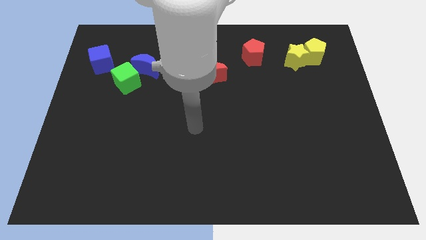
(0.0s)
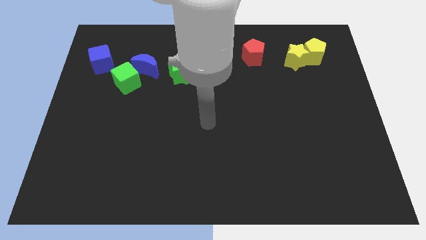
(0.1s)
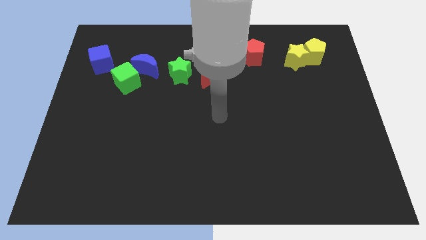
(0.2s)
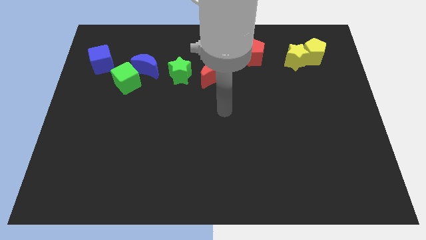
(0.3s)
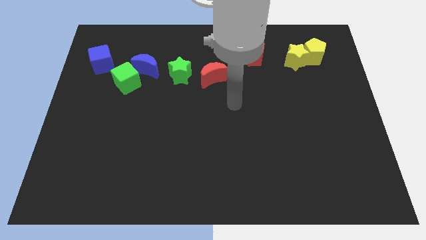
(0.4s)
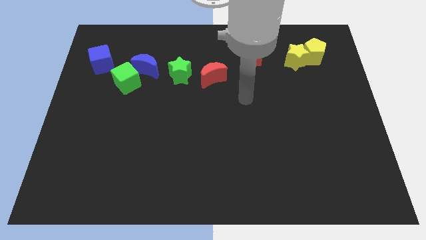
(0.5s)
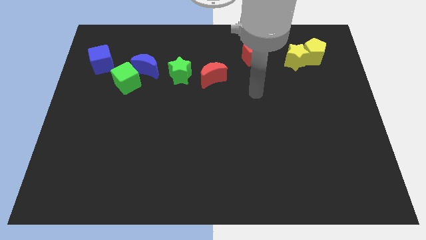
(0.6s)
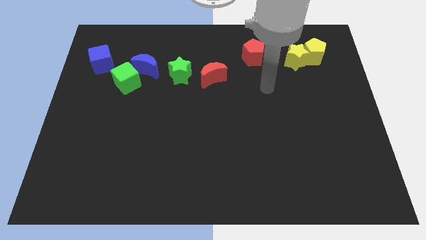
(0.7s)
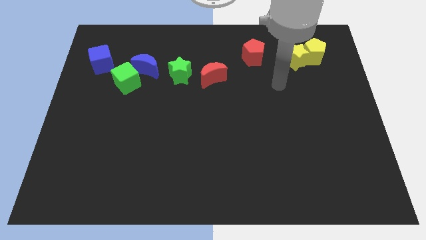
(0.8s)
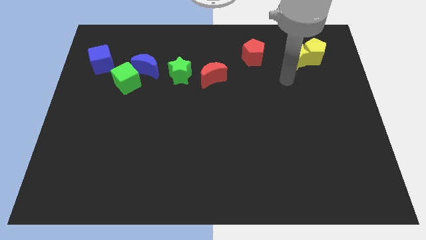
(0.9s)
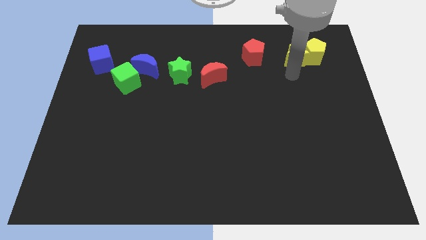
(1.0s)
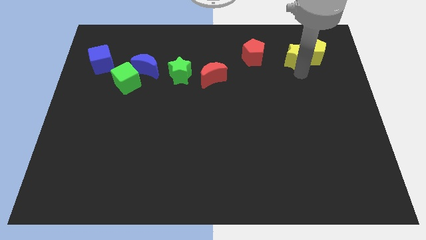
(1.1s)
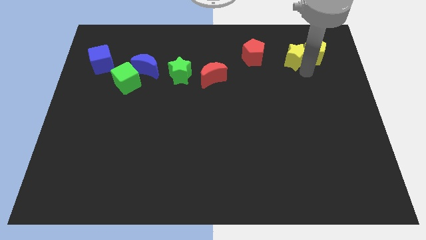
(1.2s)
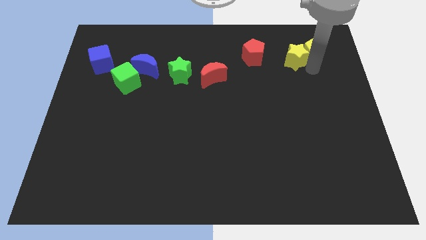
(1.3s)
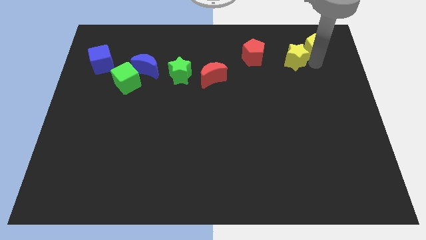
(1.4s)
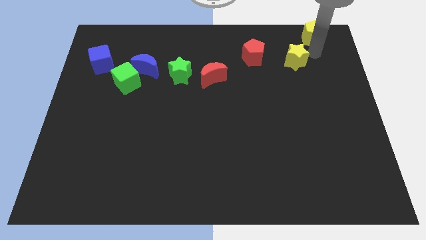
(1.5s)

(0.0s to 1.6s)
pull the yellow star apart from the yellow pentagon

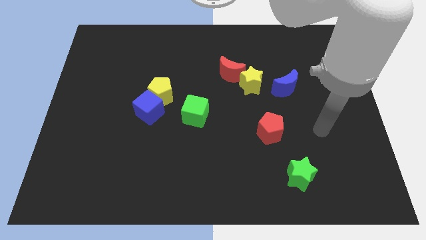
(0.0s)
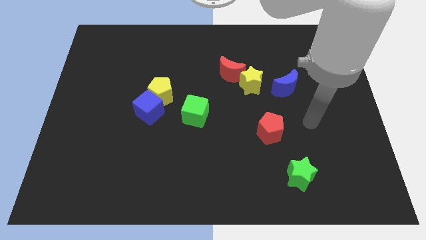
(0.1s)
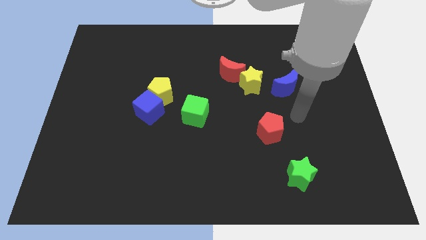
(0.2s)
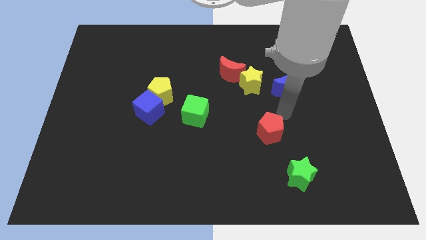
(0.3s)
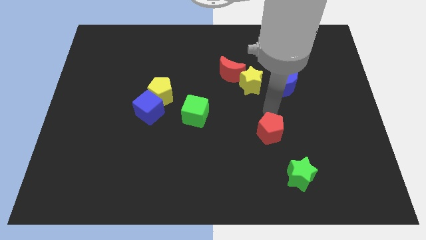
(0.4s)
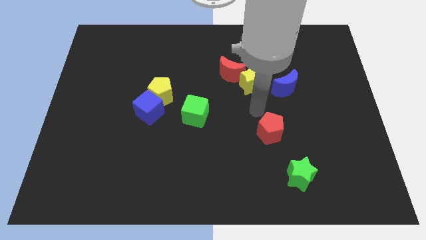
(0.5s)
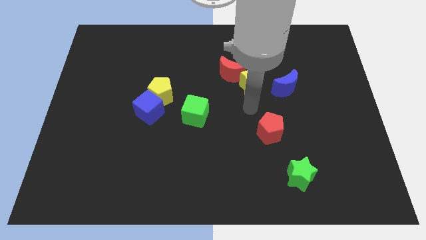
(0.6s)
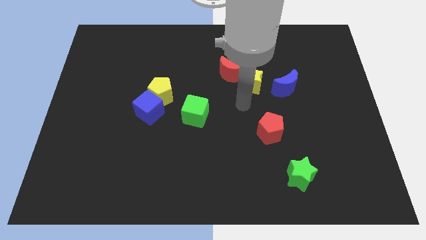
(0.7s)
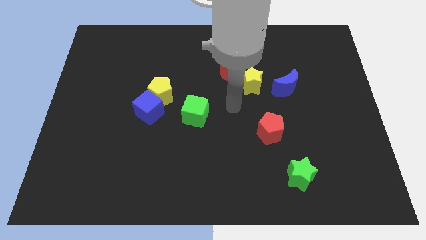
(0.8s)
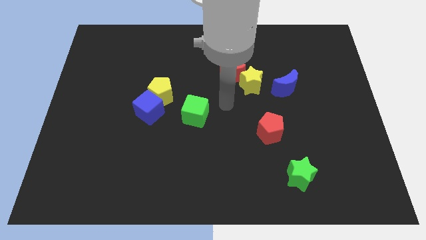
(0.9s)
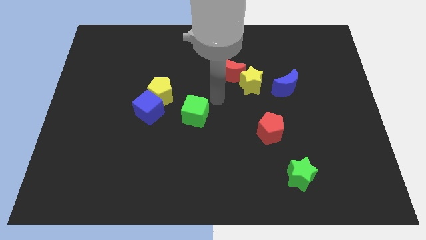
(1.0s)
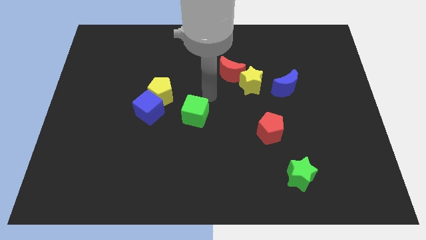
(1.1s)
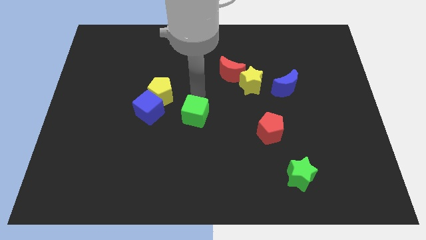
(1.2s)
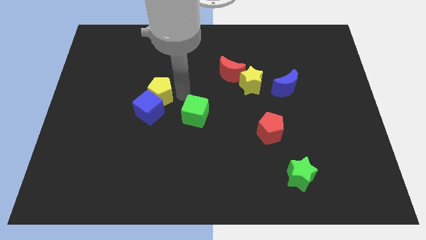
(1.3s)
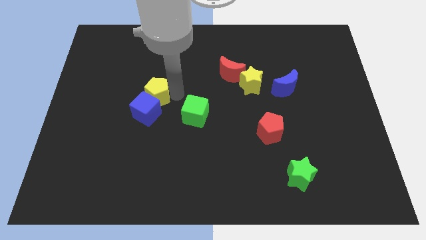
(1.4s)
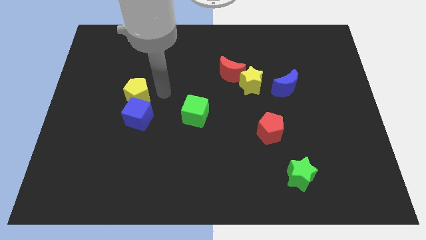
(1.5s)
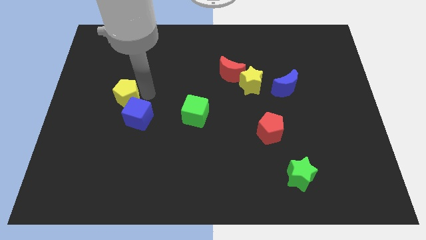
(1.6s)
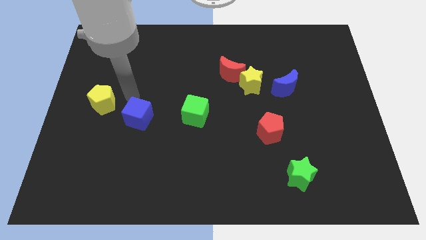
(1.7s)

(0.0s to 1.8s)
pull the blue cube apart from the yellow pentagon

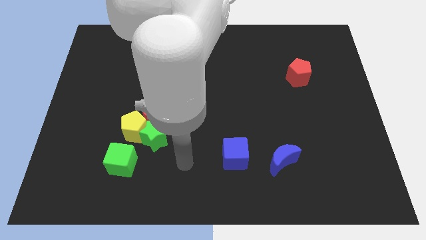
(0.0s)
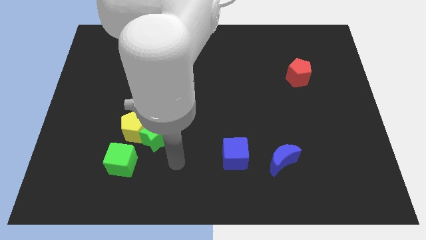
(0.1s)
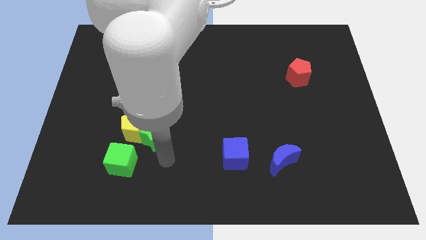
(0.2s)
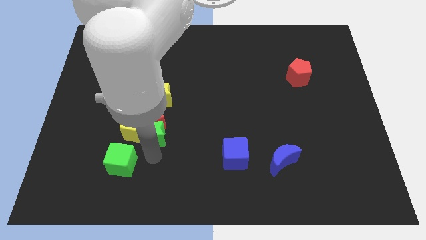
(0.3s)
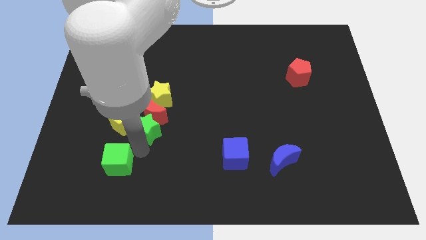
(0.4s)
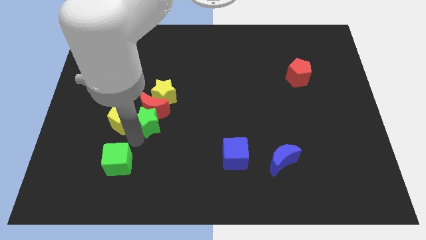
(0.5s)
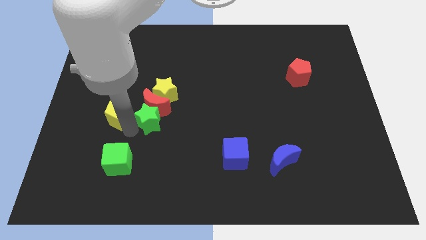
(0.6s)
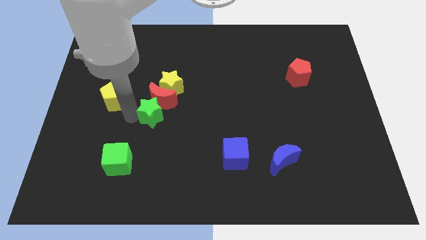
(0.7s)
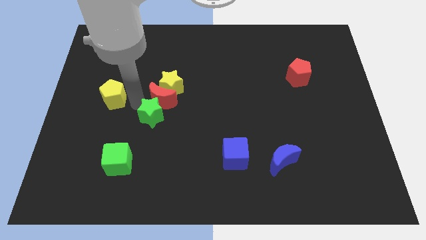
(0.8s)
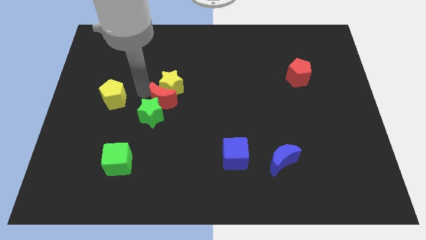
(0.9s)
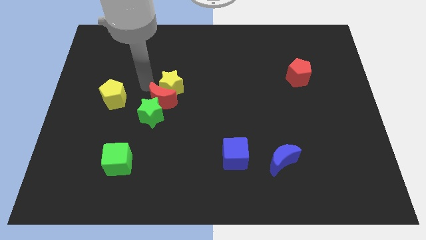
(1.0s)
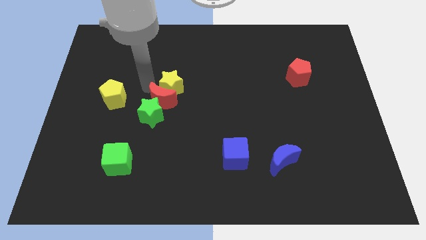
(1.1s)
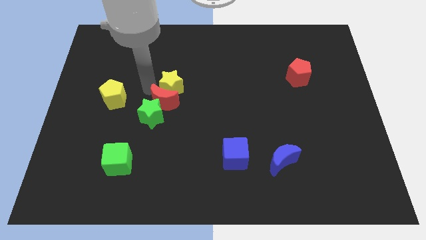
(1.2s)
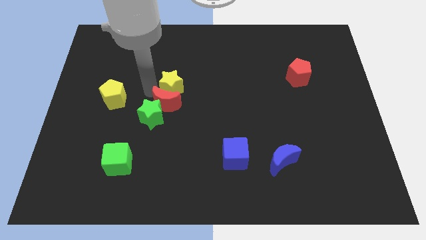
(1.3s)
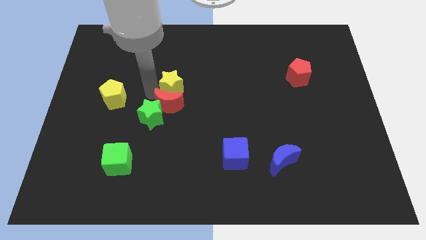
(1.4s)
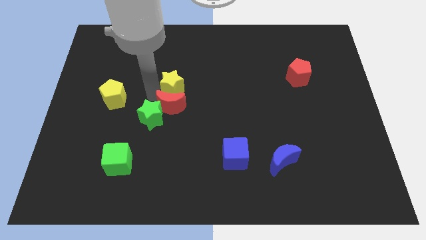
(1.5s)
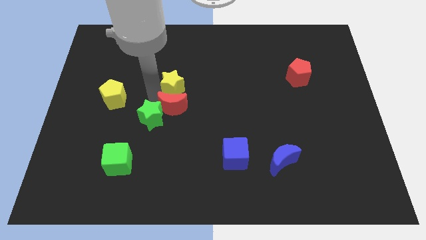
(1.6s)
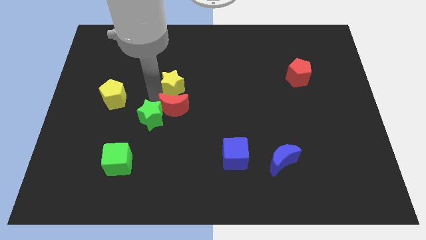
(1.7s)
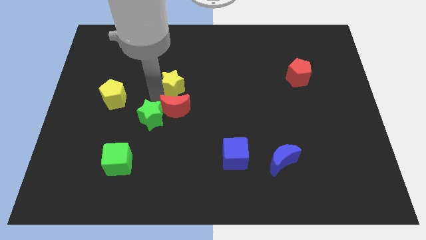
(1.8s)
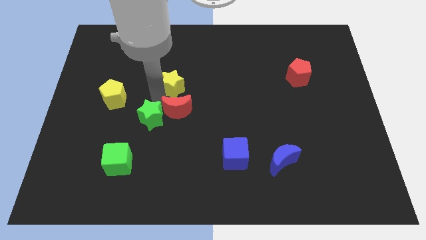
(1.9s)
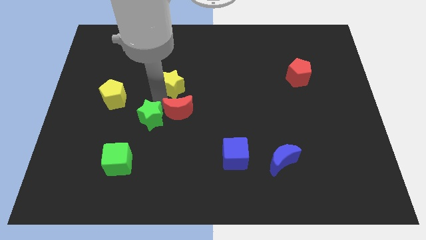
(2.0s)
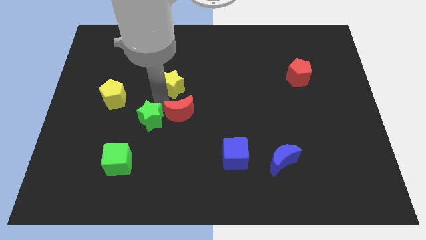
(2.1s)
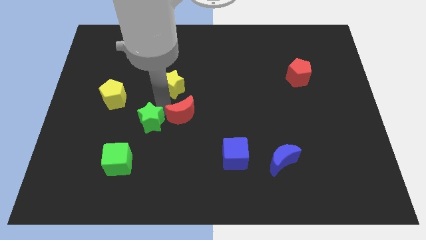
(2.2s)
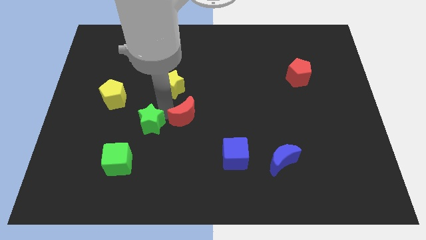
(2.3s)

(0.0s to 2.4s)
separate the red moon from the yellow pentagon, green star, and yellow star

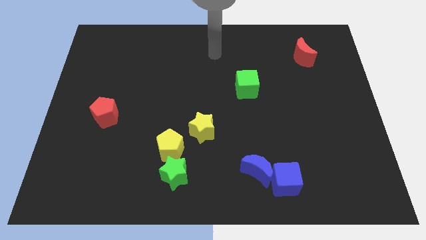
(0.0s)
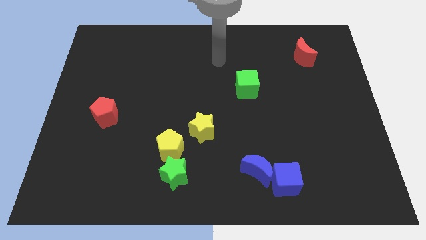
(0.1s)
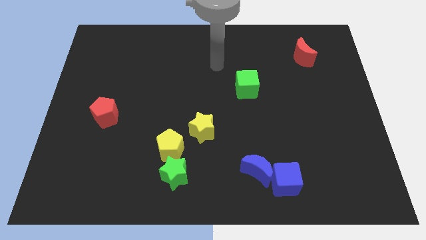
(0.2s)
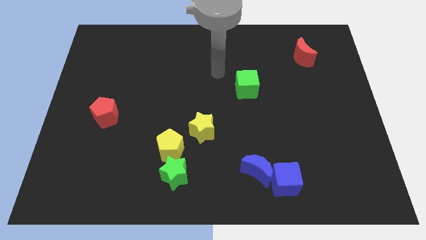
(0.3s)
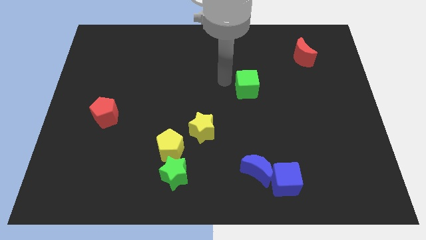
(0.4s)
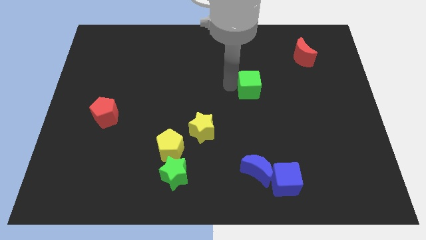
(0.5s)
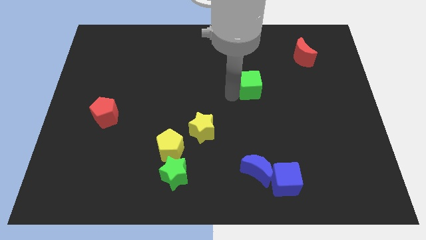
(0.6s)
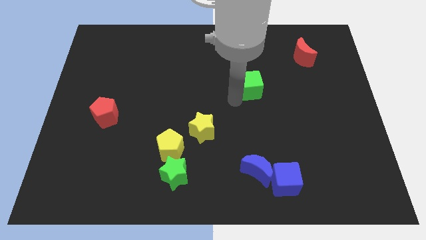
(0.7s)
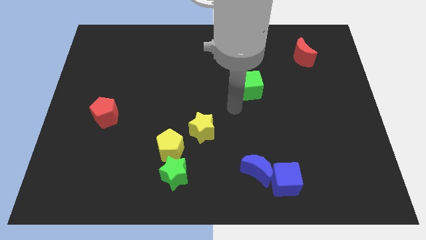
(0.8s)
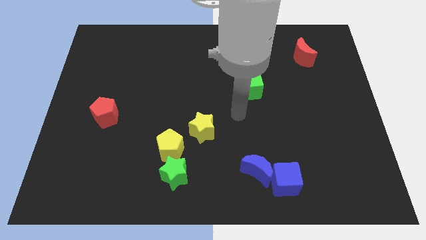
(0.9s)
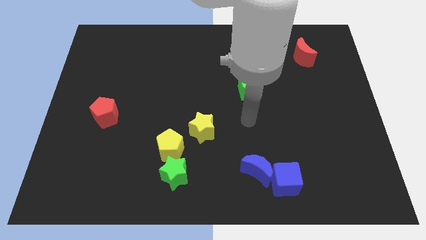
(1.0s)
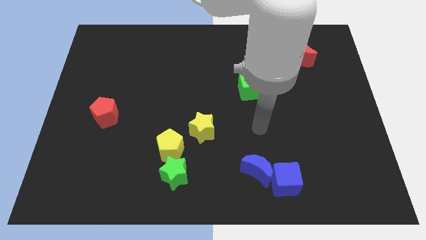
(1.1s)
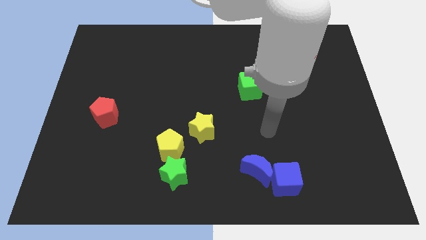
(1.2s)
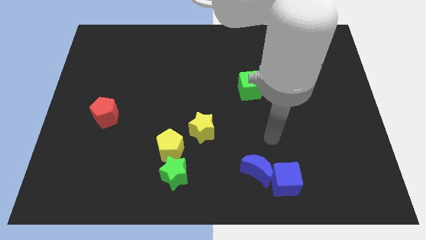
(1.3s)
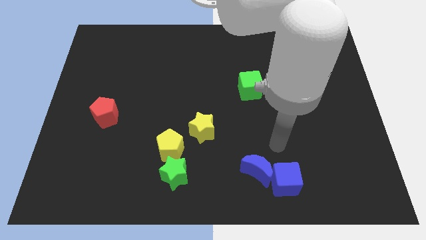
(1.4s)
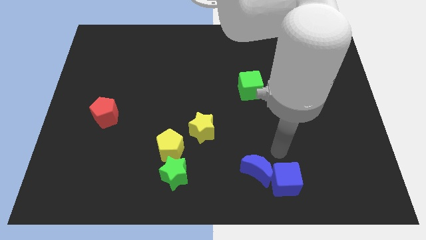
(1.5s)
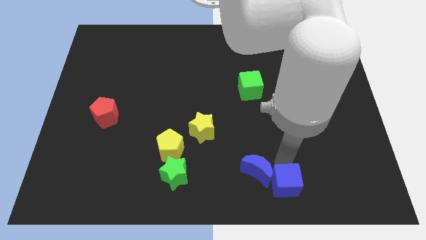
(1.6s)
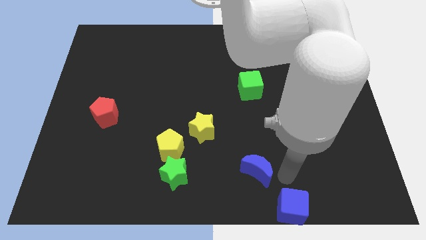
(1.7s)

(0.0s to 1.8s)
separate the blue moon from the blue cube

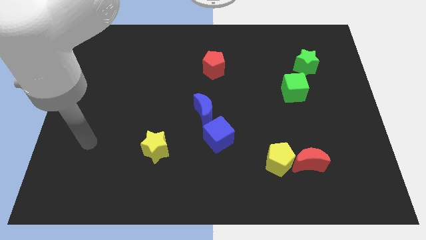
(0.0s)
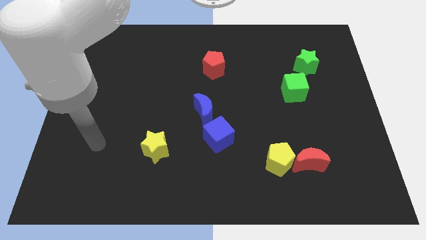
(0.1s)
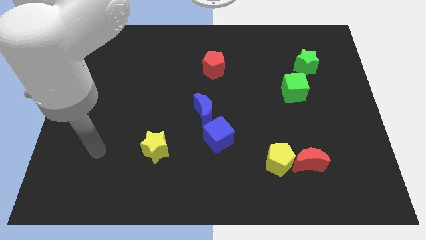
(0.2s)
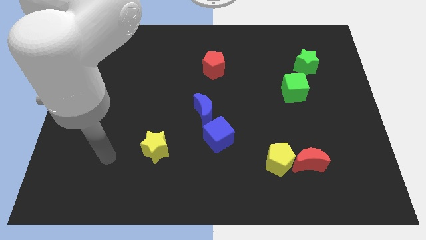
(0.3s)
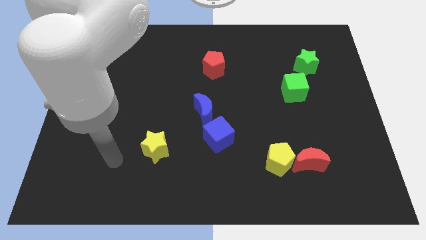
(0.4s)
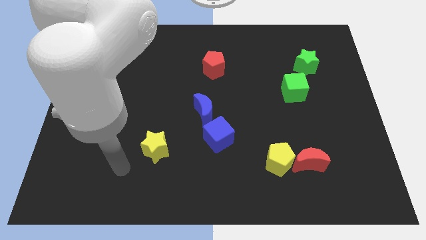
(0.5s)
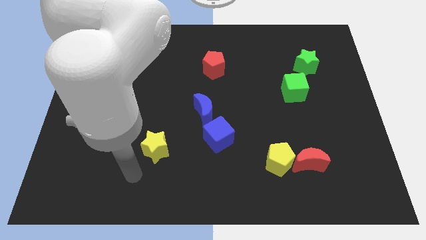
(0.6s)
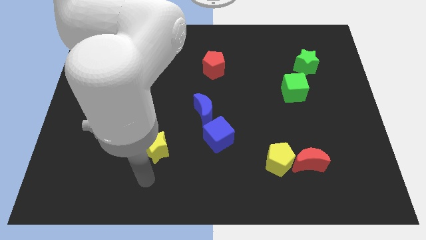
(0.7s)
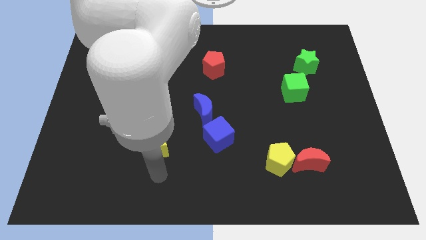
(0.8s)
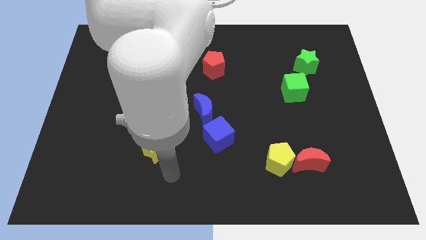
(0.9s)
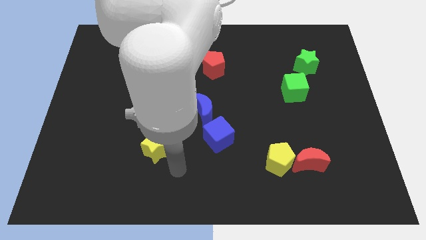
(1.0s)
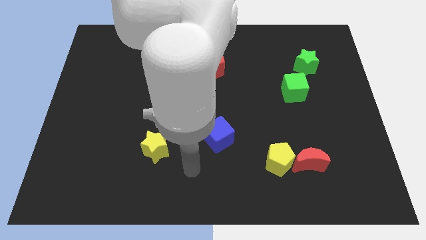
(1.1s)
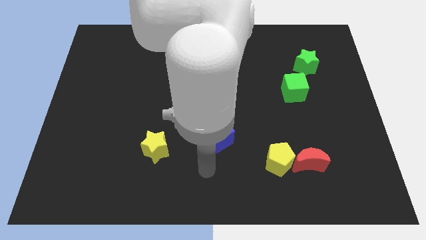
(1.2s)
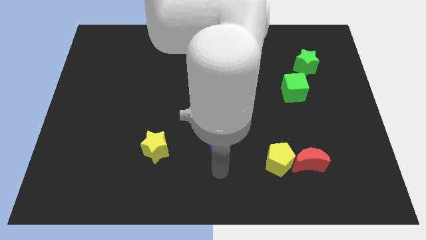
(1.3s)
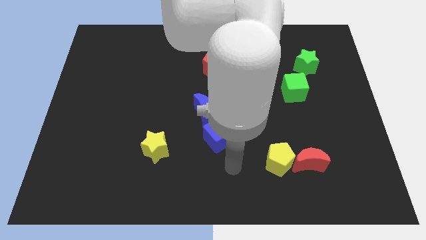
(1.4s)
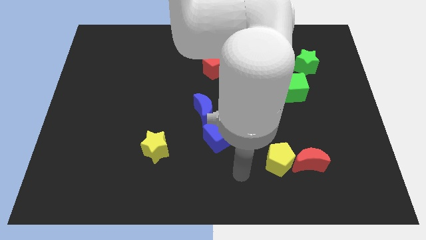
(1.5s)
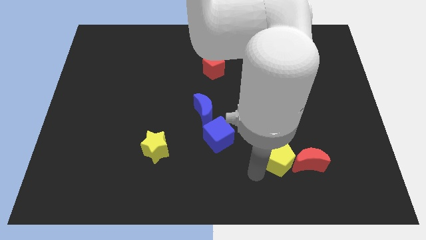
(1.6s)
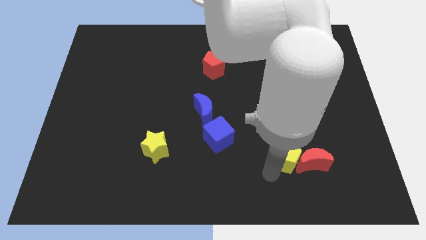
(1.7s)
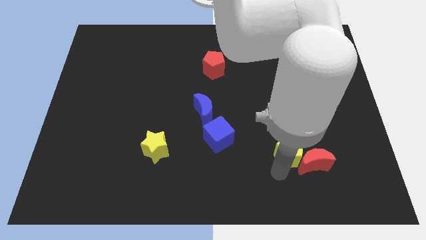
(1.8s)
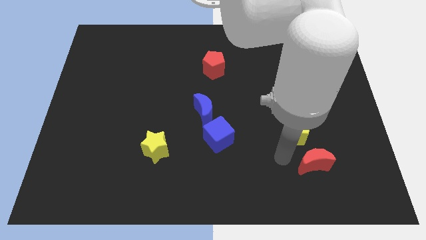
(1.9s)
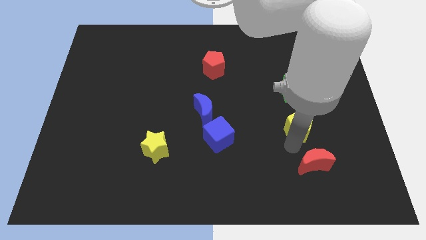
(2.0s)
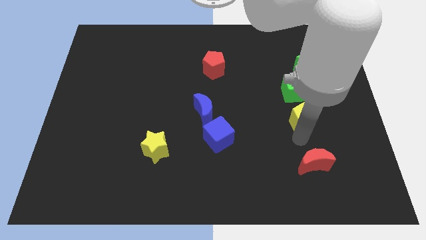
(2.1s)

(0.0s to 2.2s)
pull the red moon apart from the yellow pentagon
